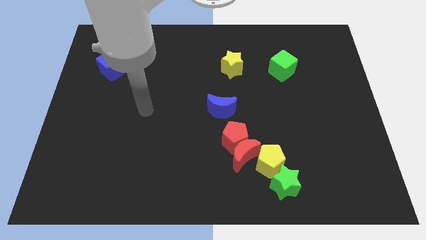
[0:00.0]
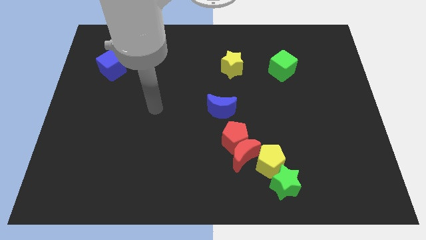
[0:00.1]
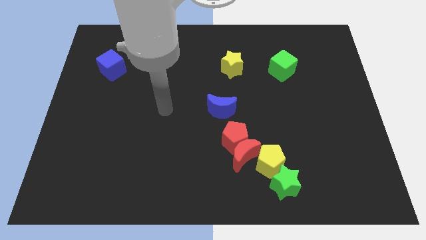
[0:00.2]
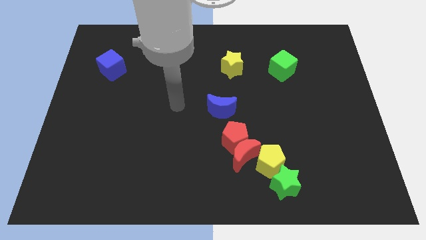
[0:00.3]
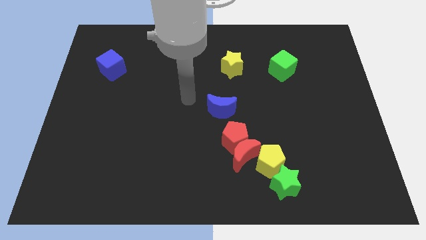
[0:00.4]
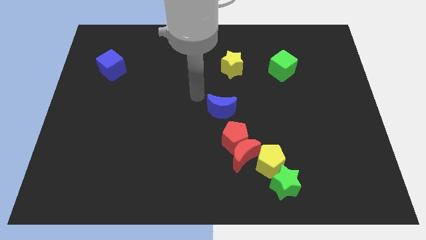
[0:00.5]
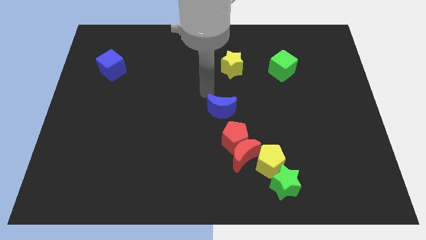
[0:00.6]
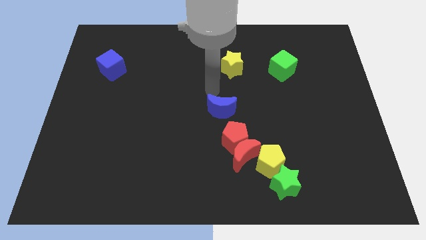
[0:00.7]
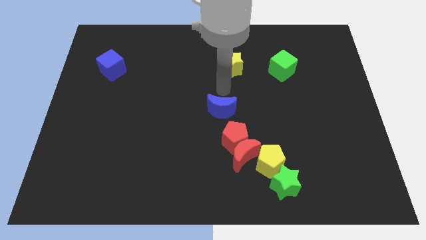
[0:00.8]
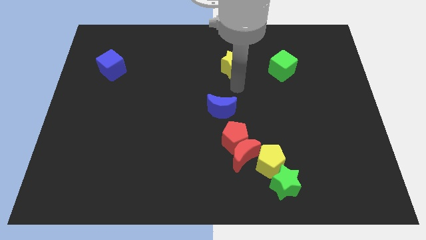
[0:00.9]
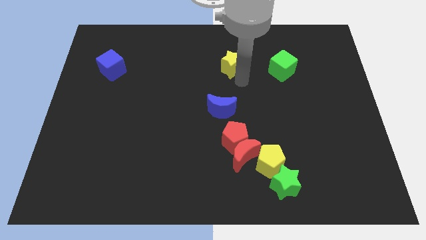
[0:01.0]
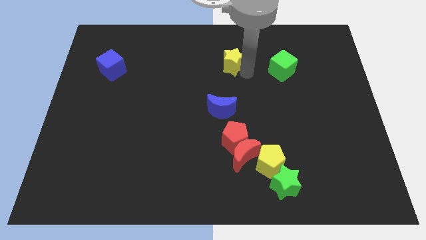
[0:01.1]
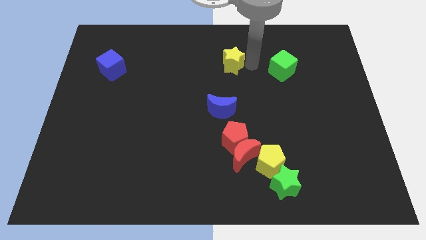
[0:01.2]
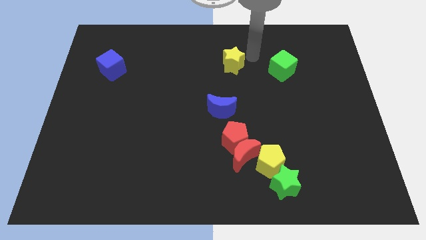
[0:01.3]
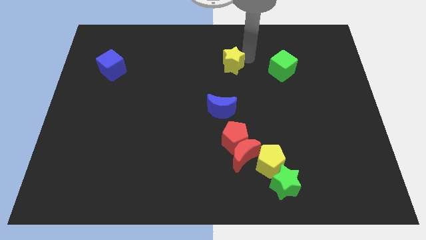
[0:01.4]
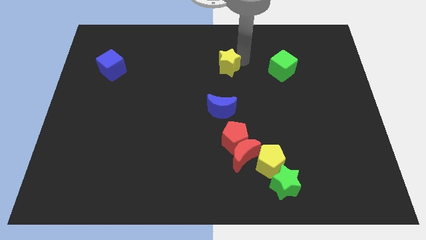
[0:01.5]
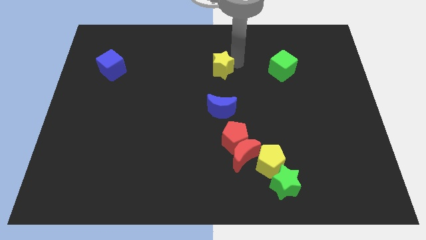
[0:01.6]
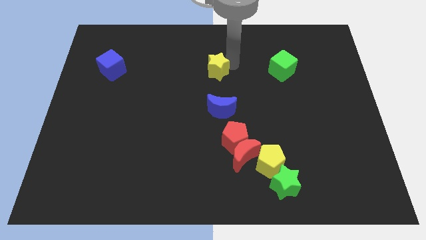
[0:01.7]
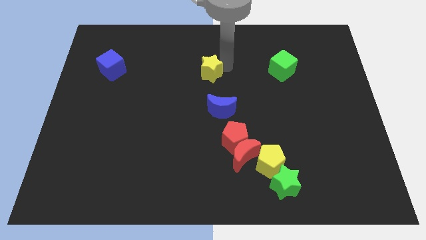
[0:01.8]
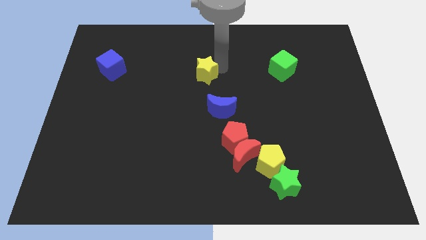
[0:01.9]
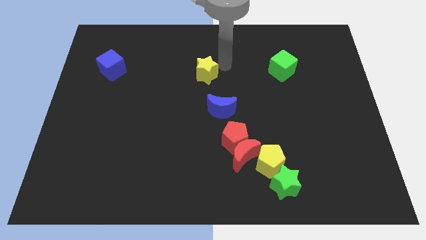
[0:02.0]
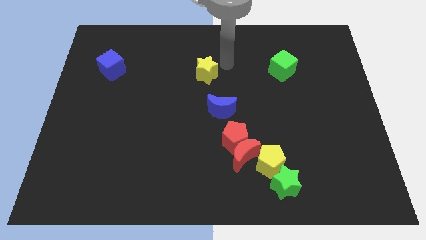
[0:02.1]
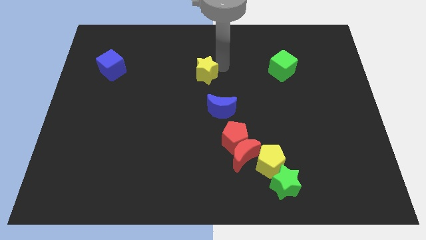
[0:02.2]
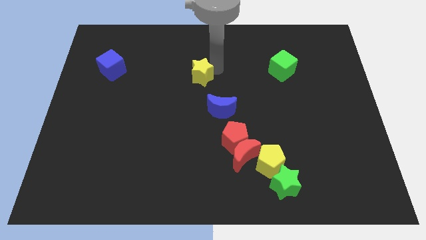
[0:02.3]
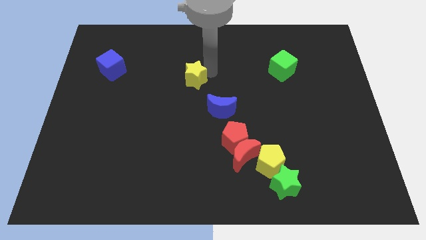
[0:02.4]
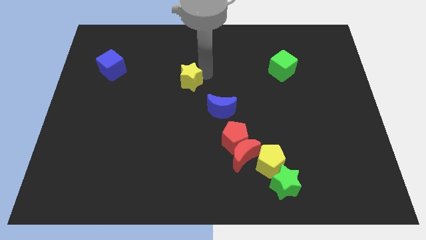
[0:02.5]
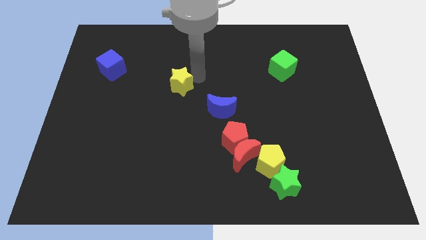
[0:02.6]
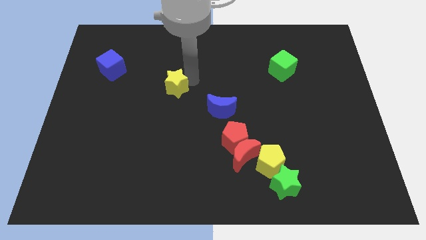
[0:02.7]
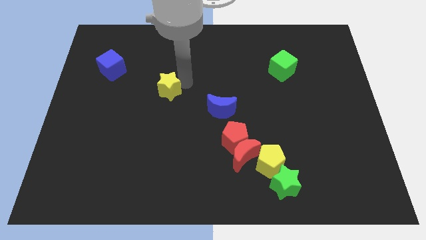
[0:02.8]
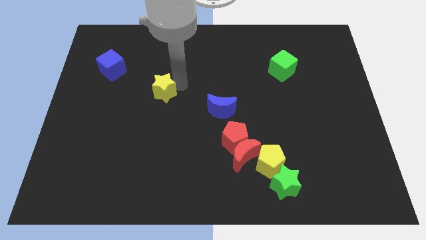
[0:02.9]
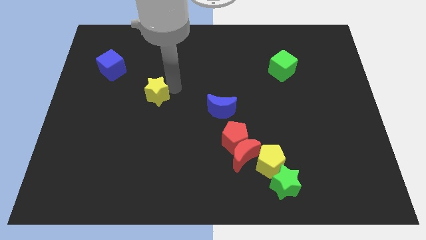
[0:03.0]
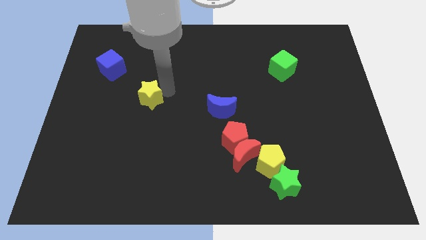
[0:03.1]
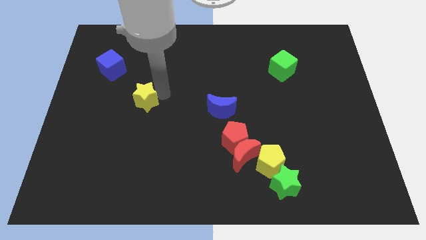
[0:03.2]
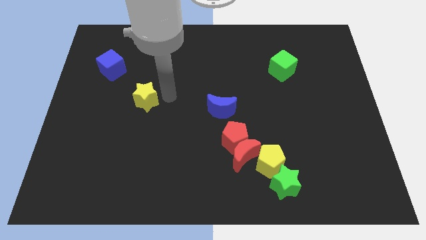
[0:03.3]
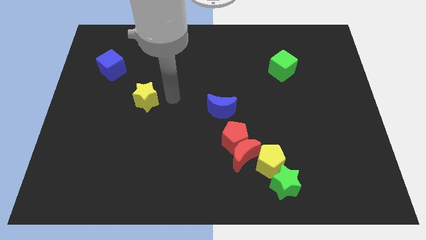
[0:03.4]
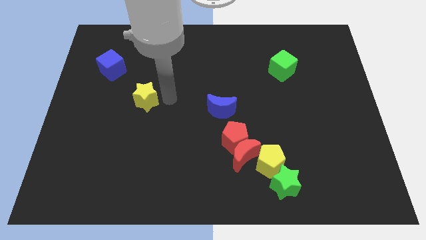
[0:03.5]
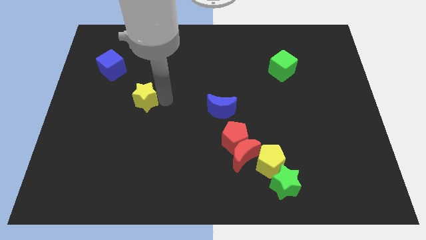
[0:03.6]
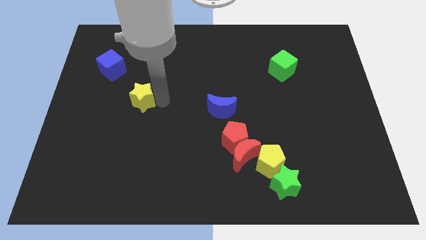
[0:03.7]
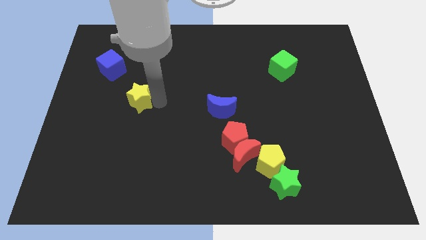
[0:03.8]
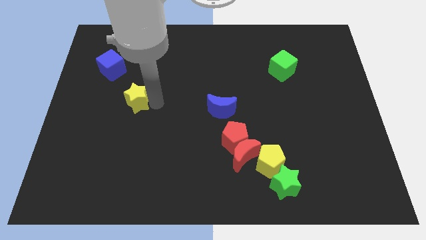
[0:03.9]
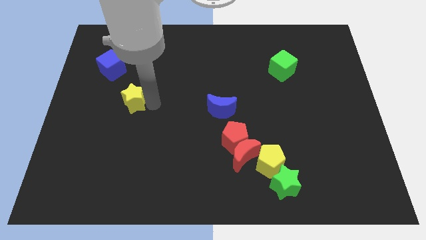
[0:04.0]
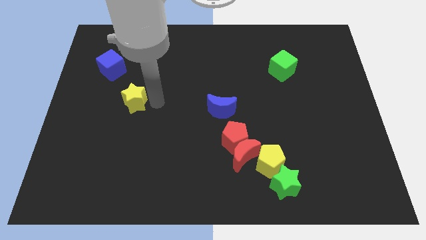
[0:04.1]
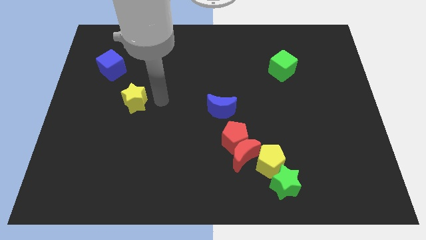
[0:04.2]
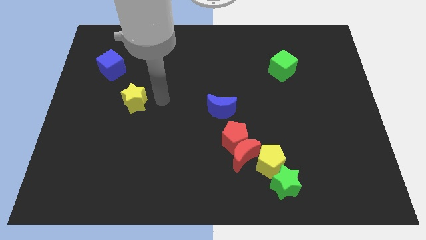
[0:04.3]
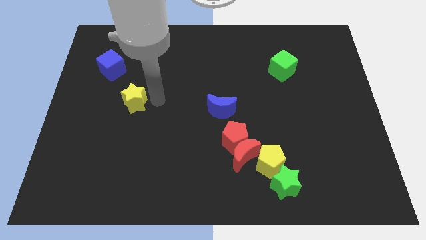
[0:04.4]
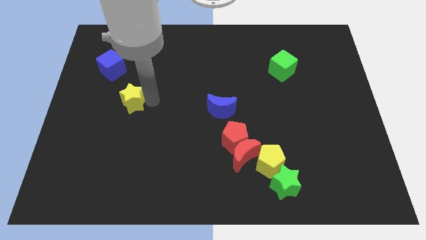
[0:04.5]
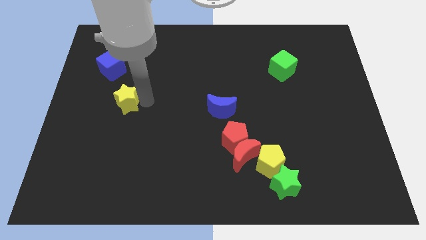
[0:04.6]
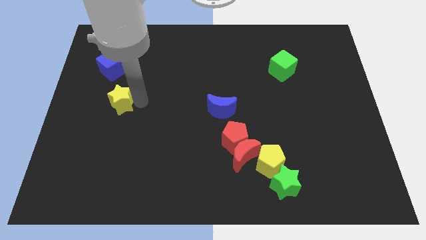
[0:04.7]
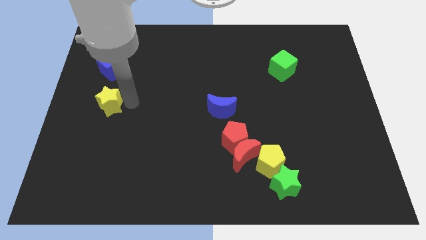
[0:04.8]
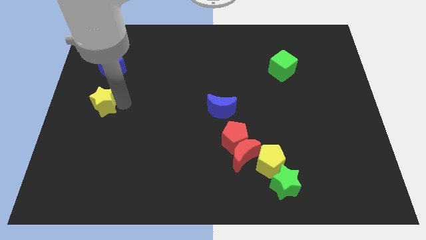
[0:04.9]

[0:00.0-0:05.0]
move the yellow star to the left side of the board

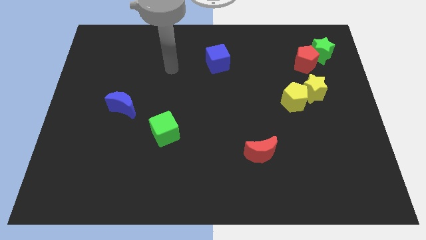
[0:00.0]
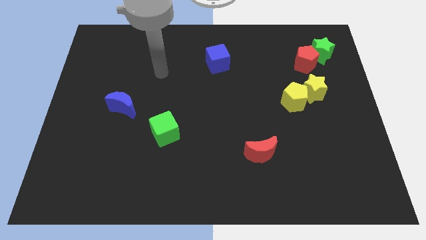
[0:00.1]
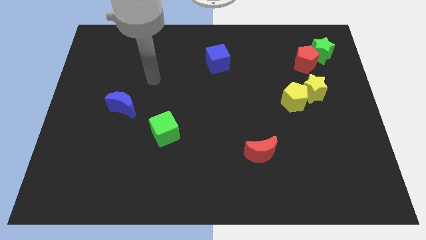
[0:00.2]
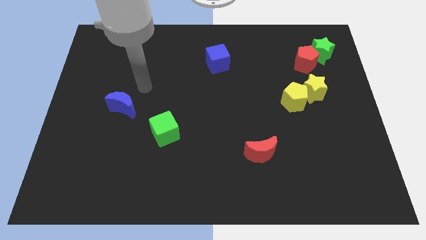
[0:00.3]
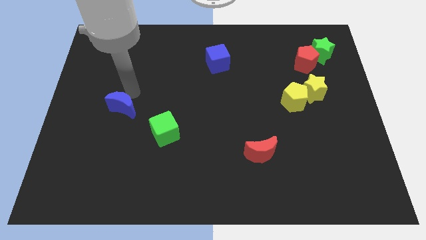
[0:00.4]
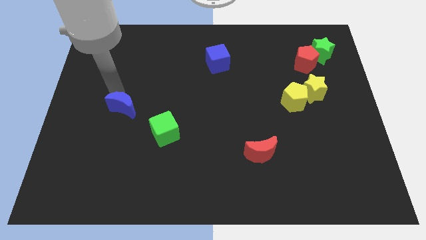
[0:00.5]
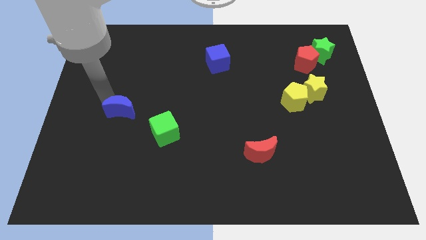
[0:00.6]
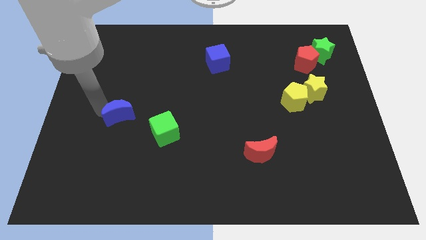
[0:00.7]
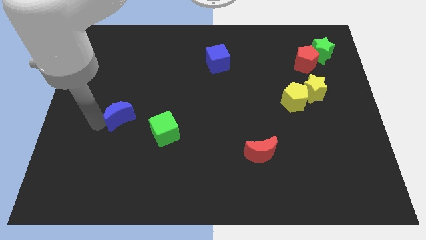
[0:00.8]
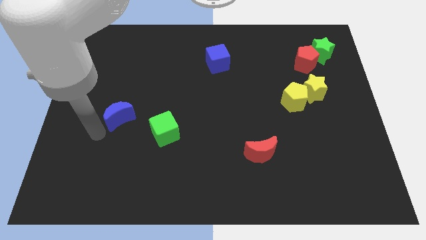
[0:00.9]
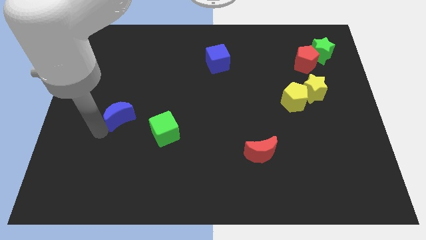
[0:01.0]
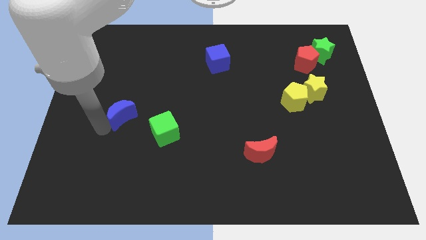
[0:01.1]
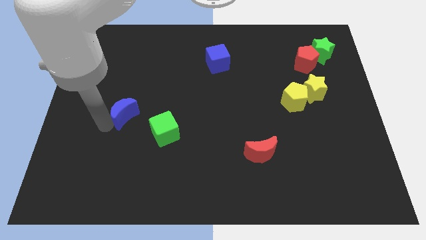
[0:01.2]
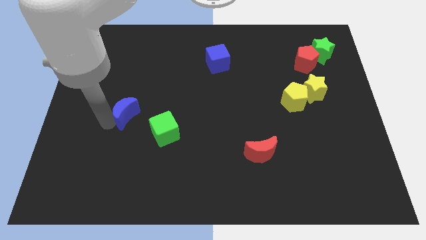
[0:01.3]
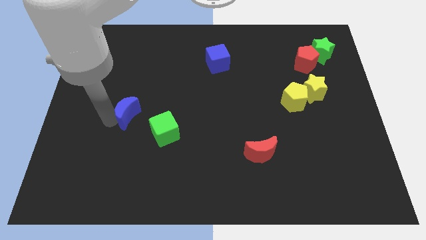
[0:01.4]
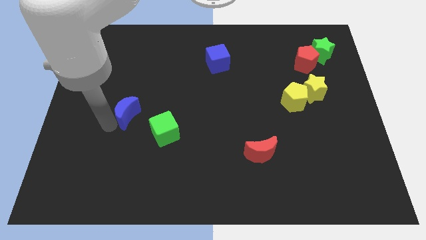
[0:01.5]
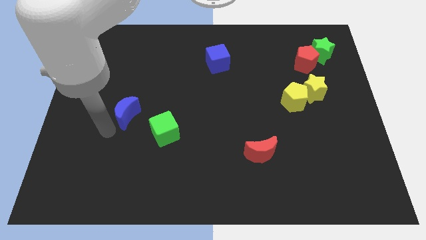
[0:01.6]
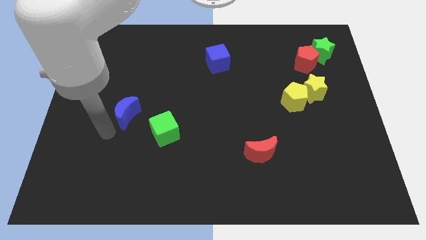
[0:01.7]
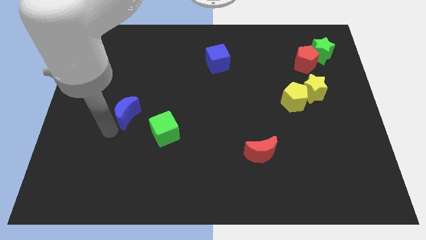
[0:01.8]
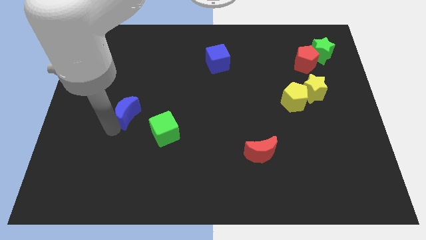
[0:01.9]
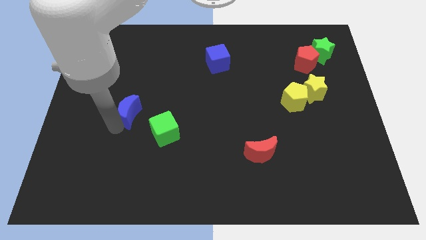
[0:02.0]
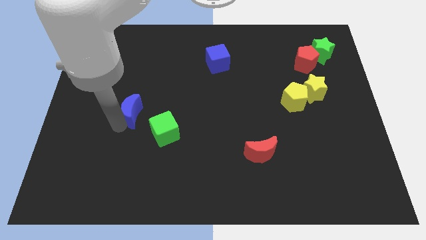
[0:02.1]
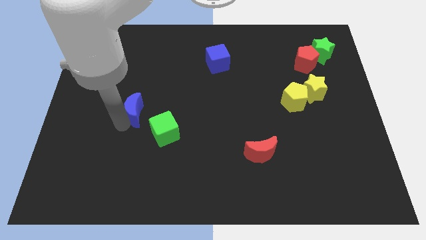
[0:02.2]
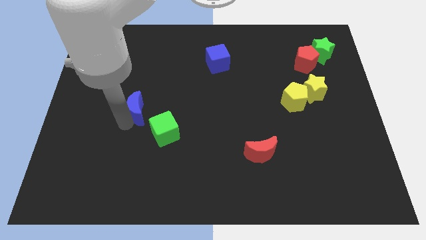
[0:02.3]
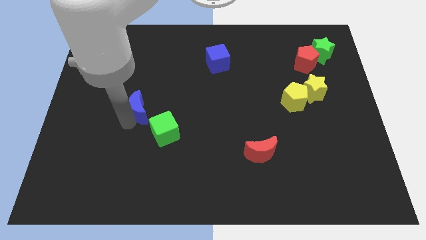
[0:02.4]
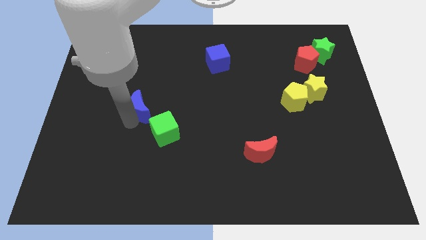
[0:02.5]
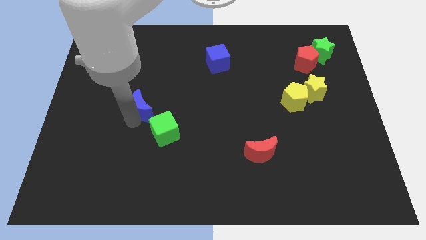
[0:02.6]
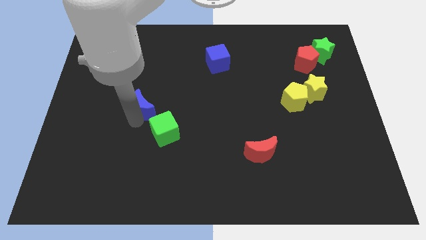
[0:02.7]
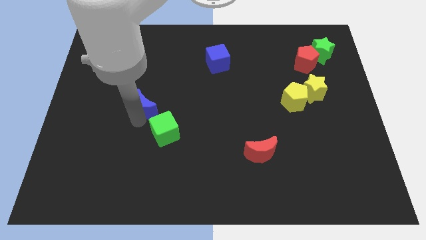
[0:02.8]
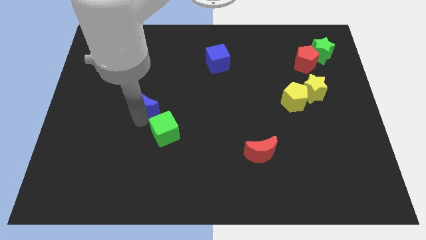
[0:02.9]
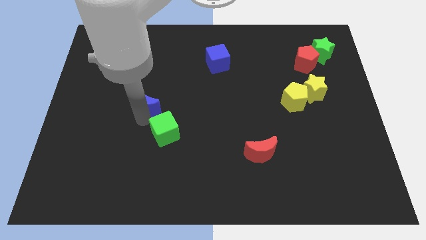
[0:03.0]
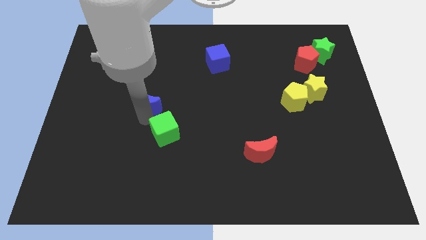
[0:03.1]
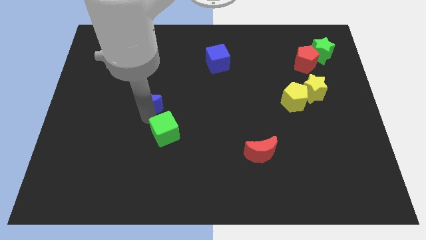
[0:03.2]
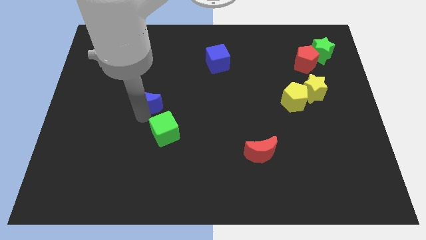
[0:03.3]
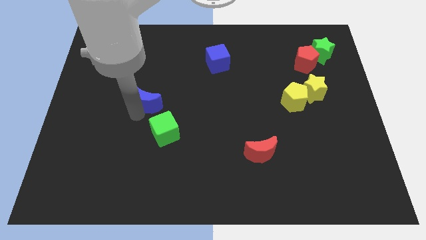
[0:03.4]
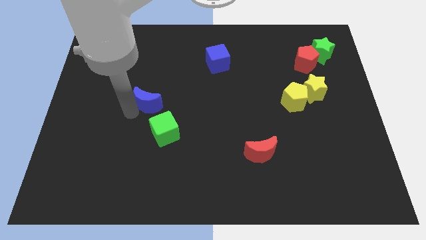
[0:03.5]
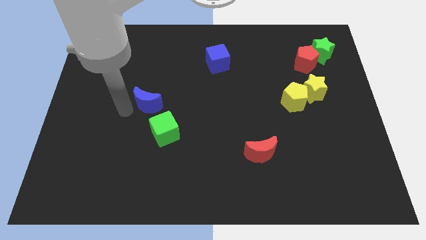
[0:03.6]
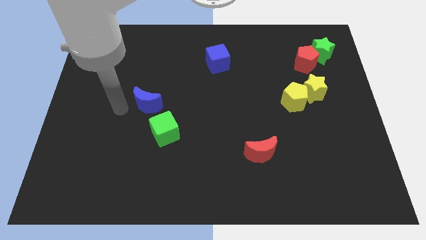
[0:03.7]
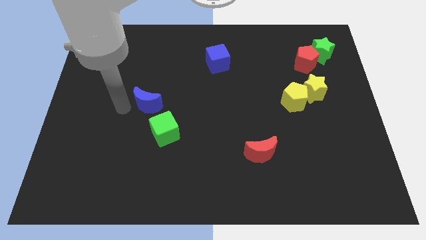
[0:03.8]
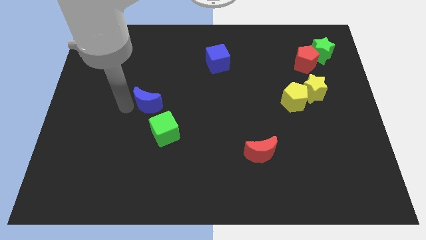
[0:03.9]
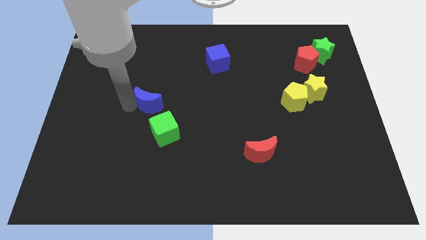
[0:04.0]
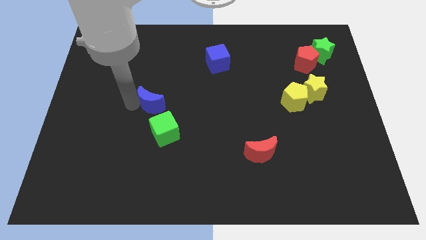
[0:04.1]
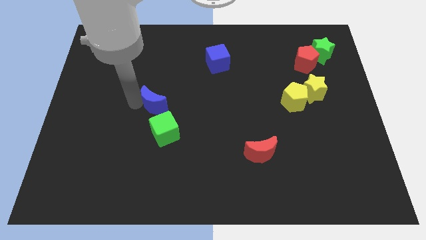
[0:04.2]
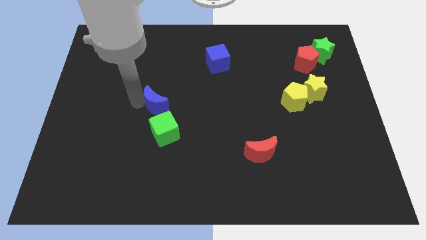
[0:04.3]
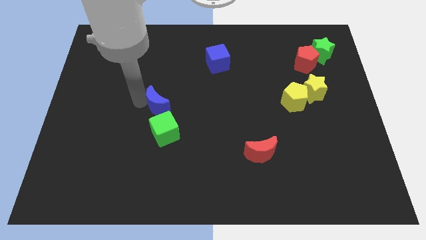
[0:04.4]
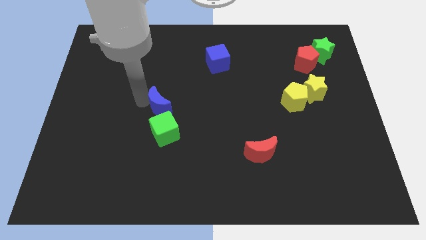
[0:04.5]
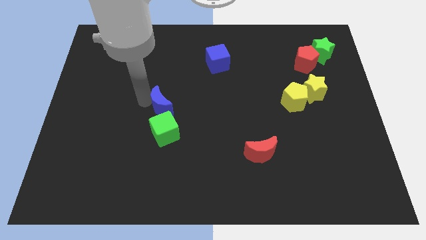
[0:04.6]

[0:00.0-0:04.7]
slide the blue moon to the center of the board
